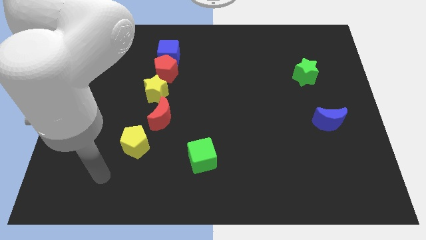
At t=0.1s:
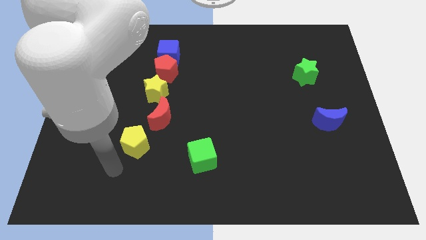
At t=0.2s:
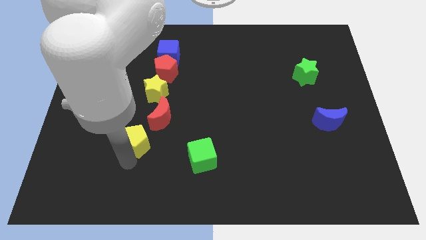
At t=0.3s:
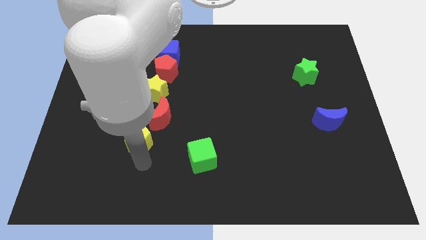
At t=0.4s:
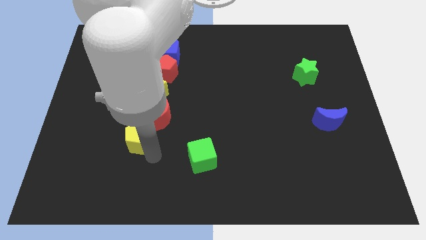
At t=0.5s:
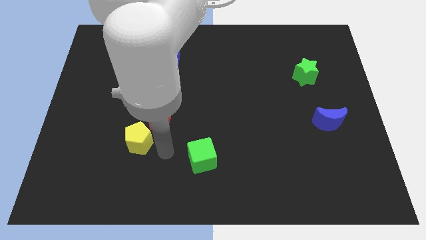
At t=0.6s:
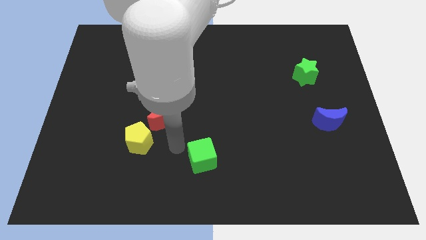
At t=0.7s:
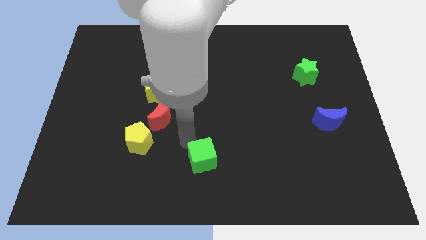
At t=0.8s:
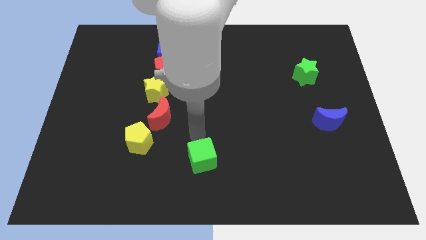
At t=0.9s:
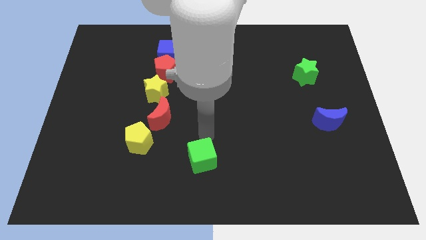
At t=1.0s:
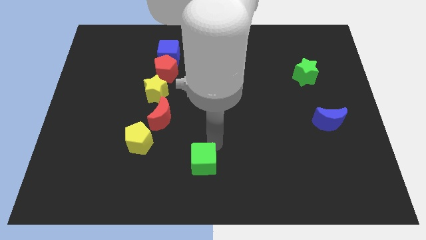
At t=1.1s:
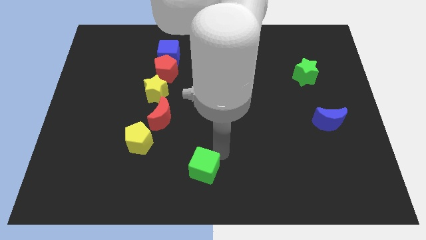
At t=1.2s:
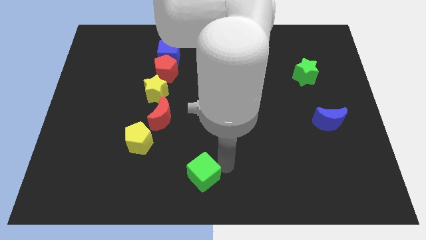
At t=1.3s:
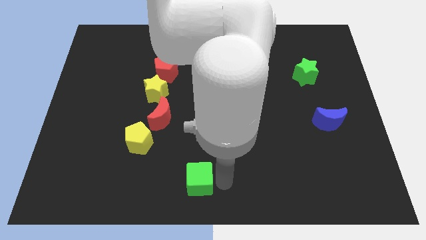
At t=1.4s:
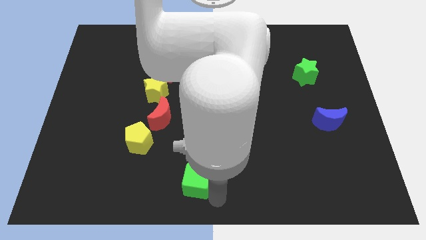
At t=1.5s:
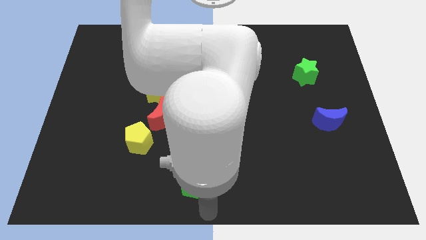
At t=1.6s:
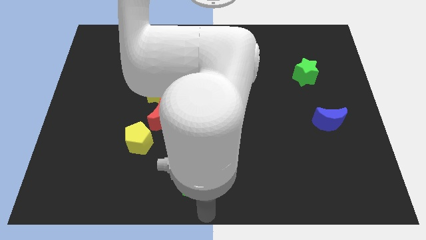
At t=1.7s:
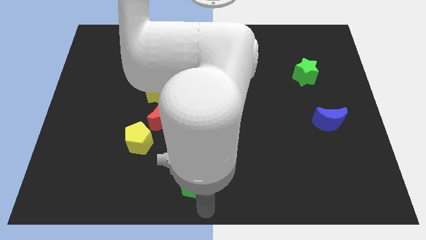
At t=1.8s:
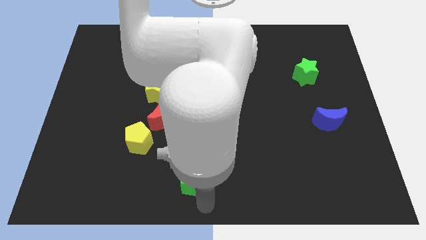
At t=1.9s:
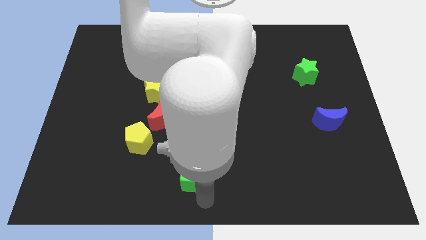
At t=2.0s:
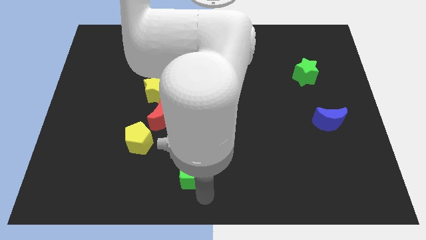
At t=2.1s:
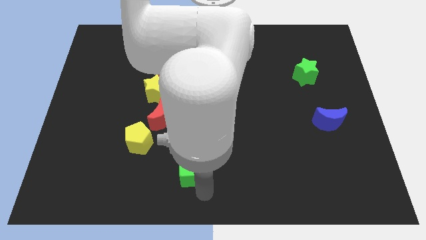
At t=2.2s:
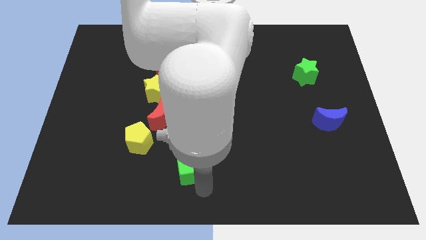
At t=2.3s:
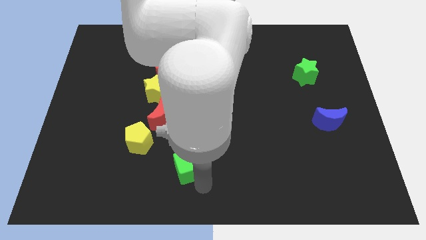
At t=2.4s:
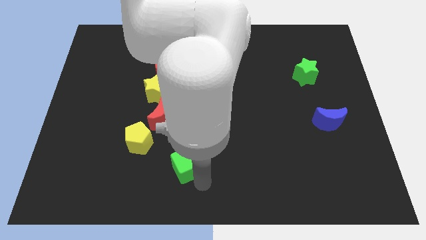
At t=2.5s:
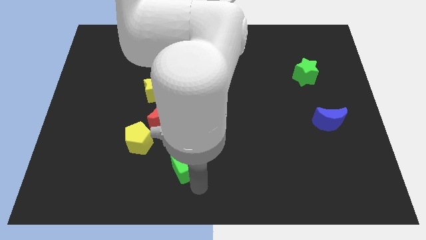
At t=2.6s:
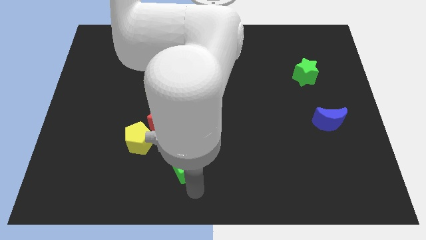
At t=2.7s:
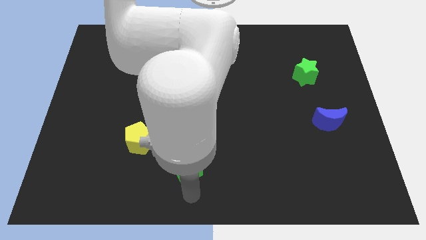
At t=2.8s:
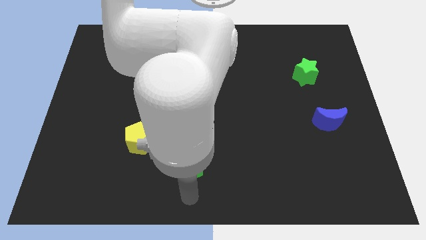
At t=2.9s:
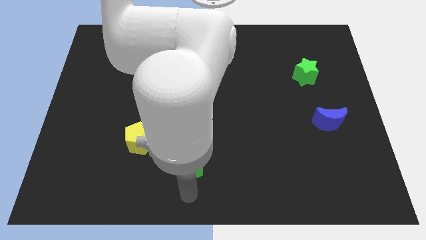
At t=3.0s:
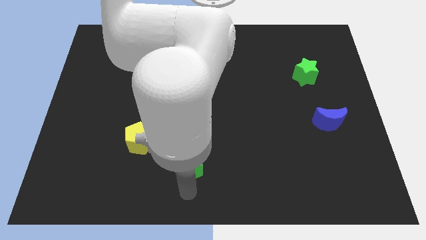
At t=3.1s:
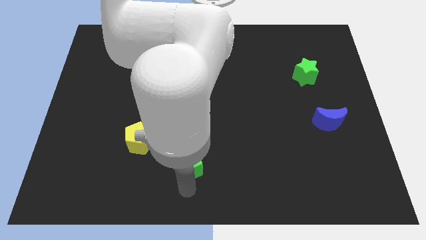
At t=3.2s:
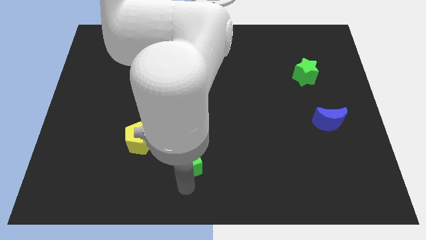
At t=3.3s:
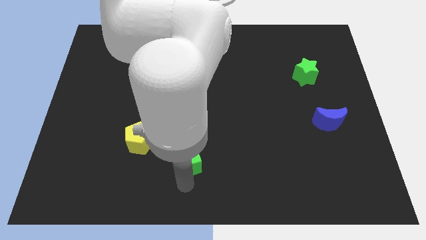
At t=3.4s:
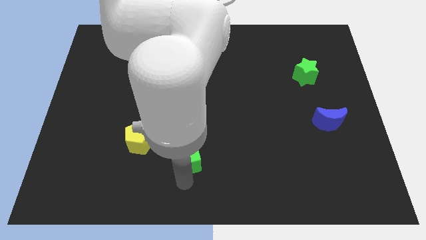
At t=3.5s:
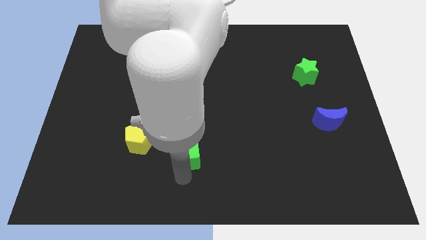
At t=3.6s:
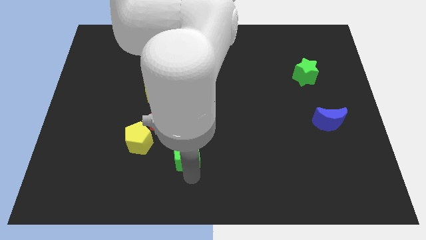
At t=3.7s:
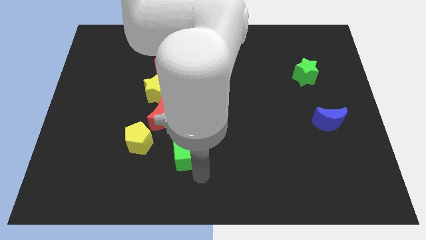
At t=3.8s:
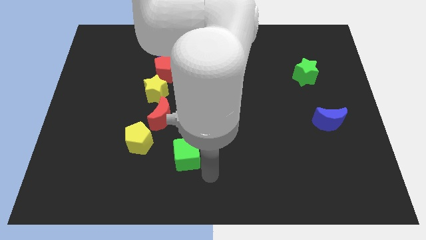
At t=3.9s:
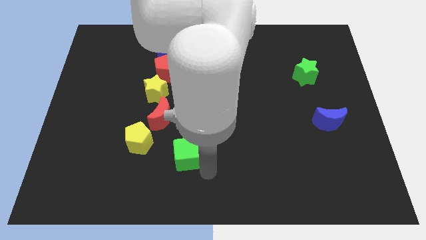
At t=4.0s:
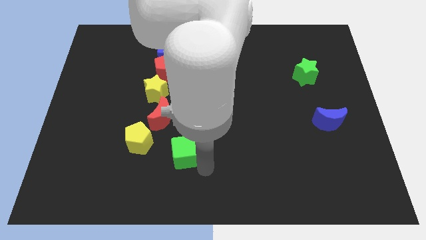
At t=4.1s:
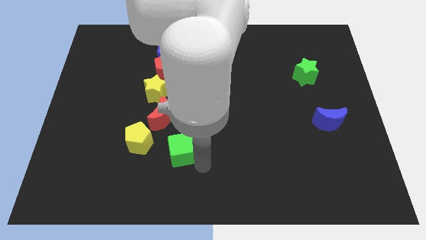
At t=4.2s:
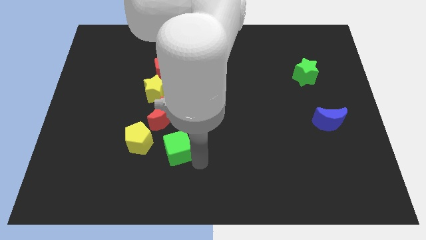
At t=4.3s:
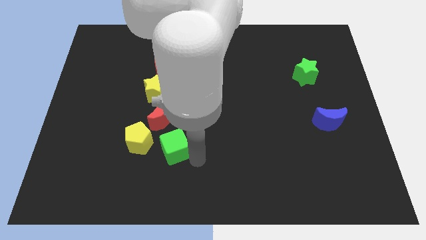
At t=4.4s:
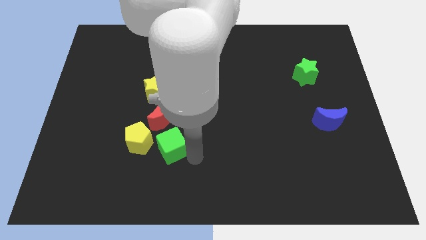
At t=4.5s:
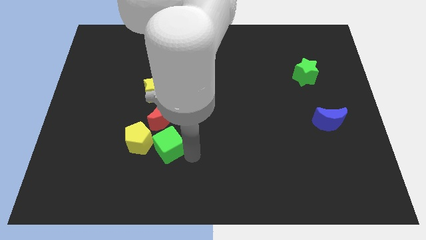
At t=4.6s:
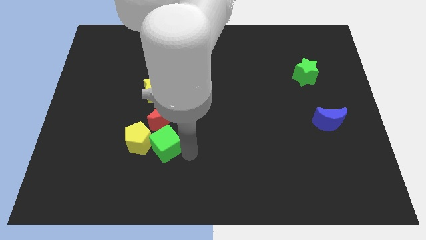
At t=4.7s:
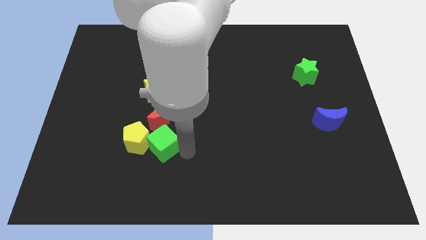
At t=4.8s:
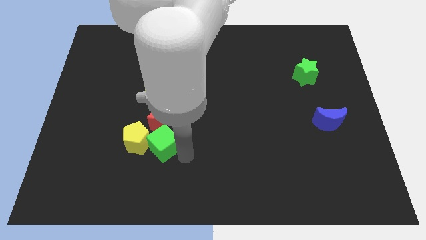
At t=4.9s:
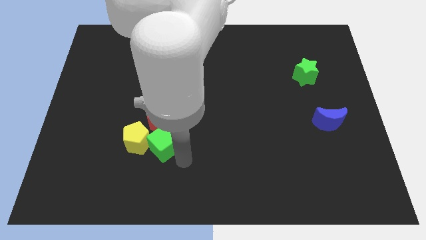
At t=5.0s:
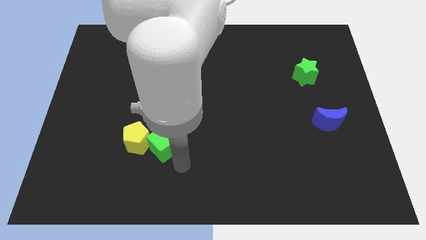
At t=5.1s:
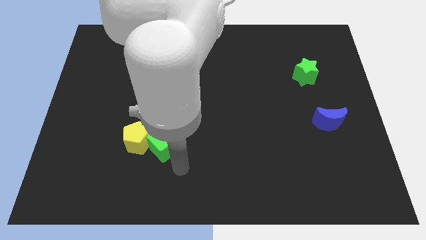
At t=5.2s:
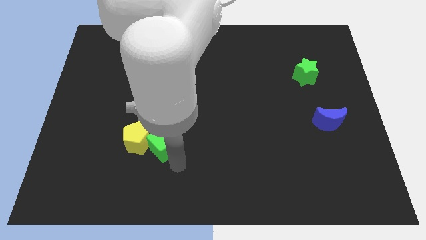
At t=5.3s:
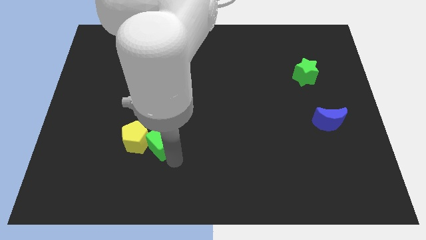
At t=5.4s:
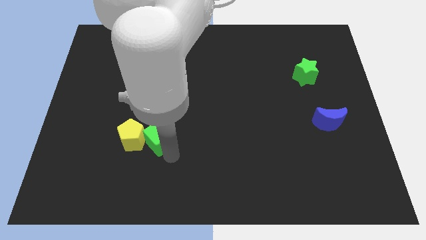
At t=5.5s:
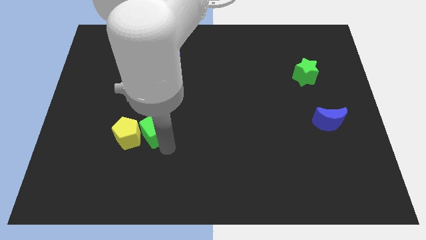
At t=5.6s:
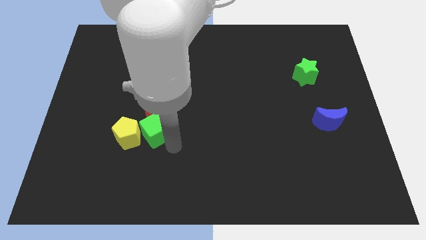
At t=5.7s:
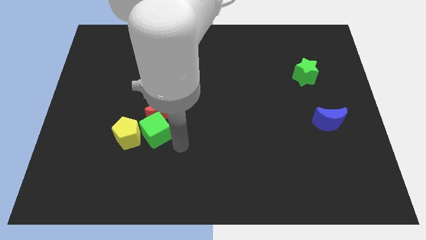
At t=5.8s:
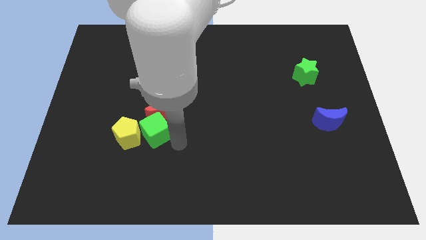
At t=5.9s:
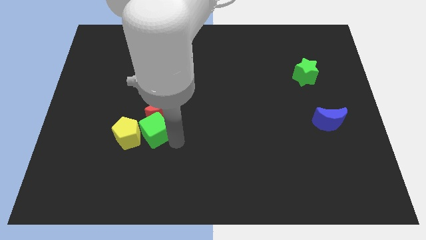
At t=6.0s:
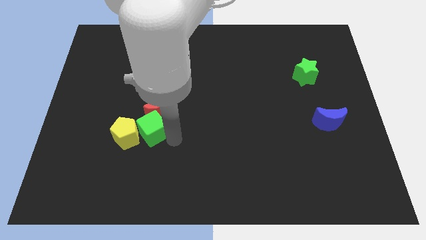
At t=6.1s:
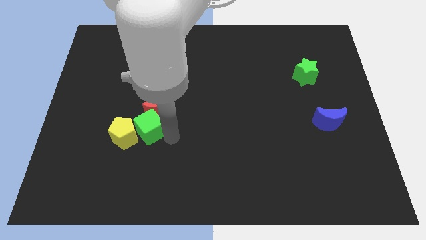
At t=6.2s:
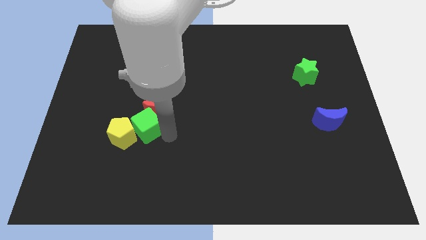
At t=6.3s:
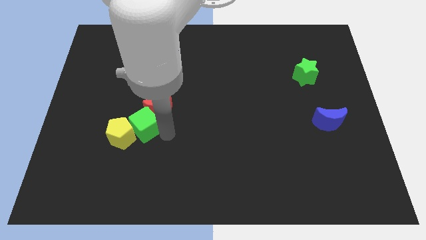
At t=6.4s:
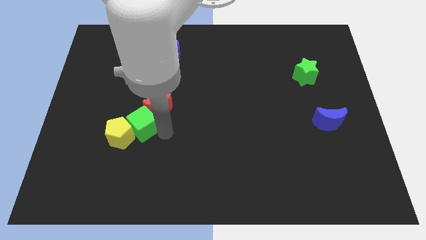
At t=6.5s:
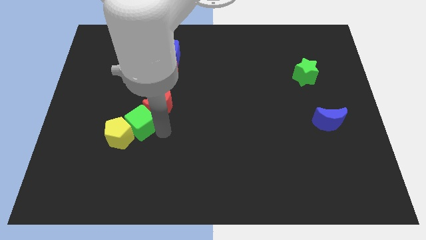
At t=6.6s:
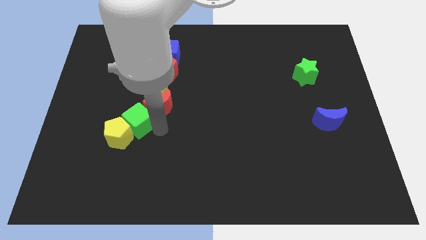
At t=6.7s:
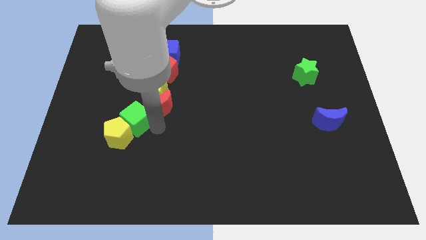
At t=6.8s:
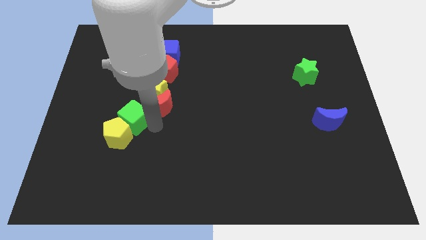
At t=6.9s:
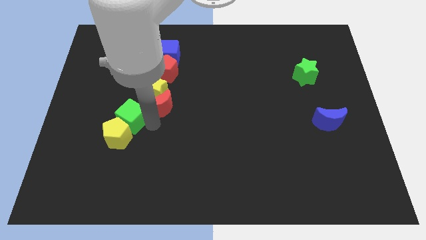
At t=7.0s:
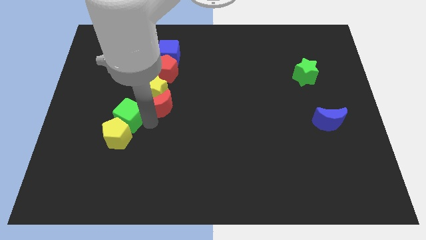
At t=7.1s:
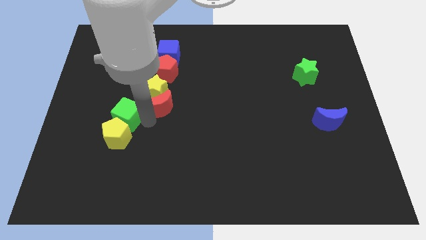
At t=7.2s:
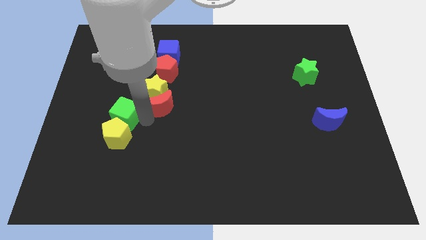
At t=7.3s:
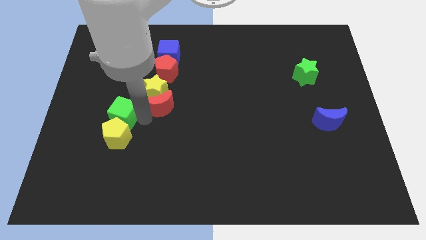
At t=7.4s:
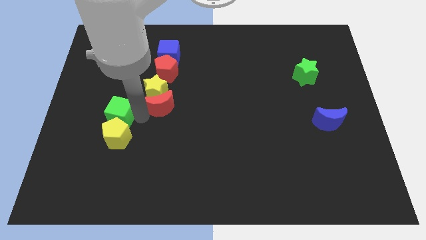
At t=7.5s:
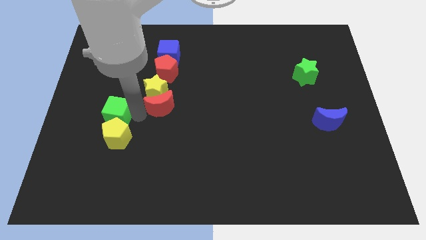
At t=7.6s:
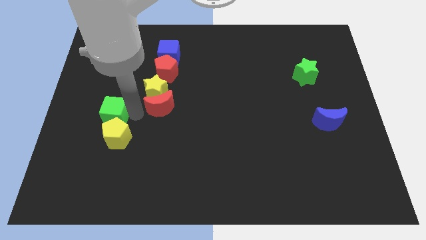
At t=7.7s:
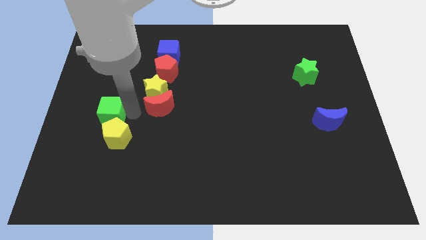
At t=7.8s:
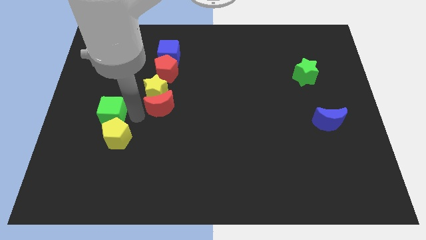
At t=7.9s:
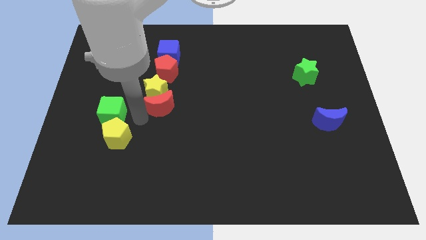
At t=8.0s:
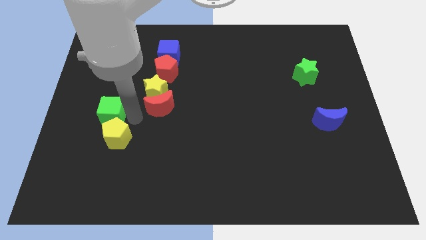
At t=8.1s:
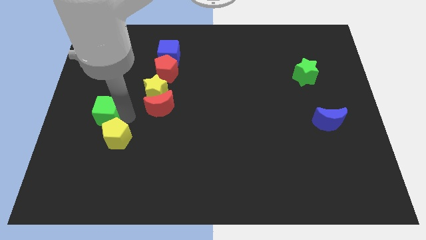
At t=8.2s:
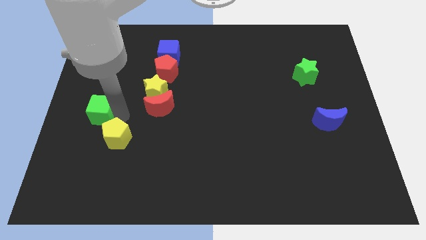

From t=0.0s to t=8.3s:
slide the green cube to the left side of the board
